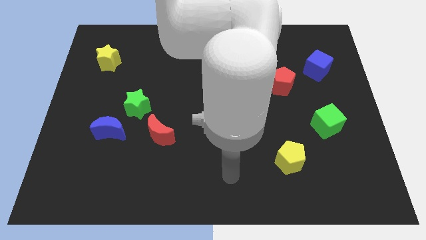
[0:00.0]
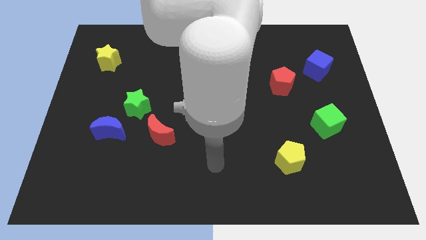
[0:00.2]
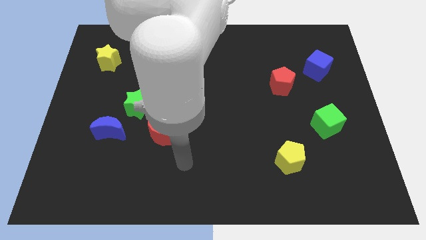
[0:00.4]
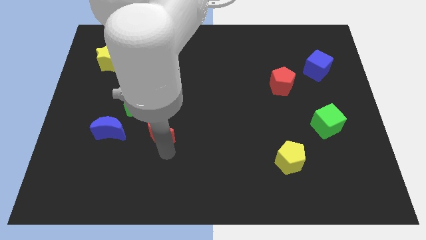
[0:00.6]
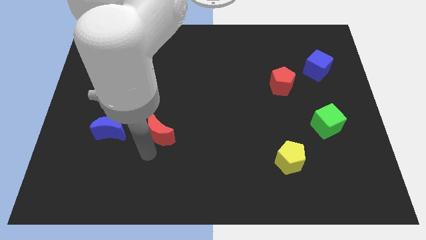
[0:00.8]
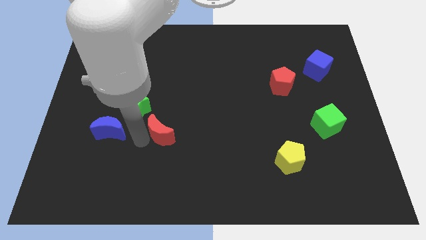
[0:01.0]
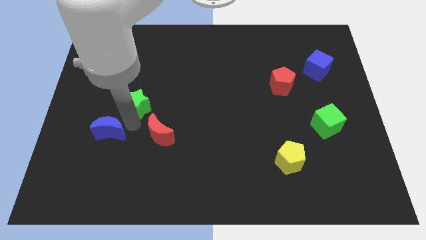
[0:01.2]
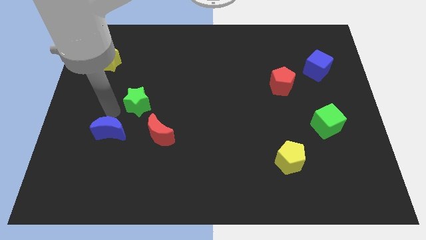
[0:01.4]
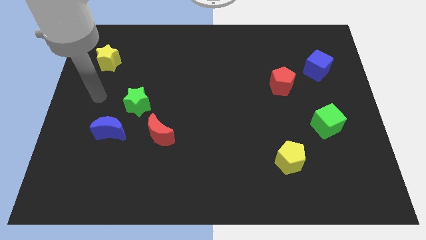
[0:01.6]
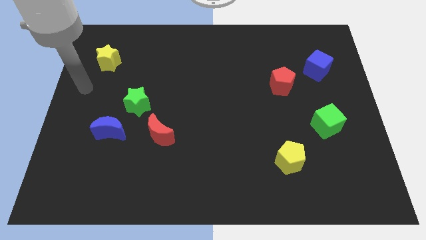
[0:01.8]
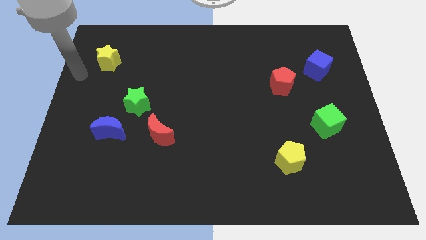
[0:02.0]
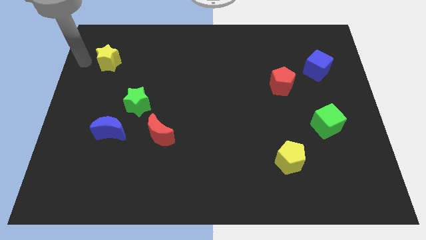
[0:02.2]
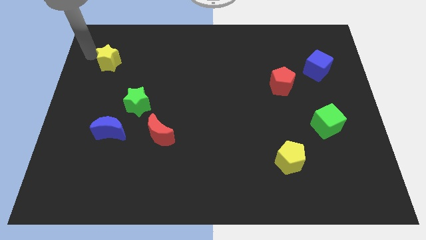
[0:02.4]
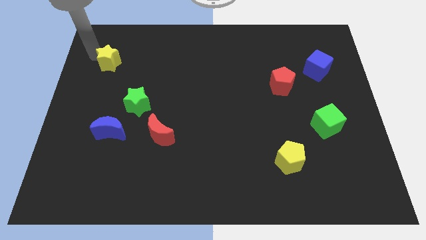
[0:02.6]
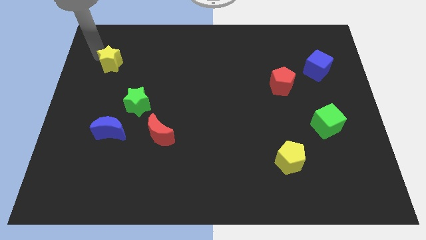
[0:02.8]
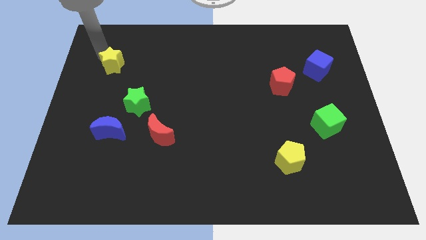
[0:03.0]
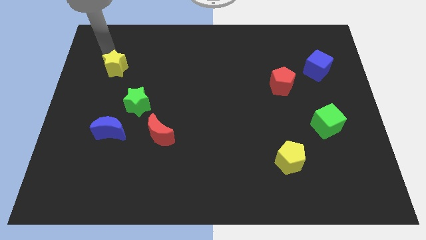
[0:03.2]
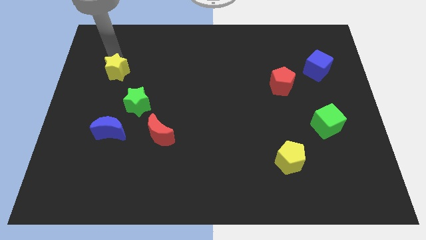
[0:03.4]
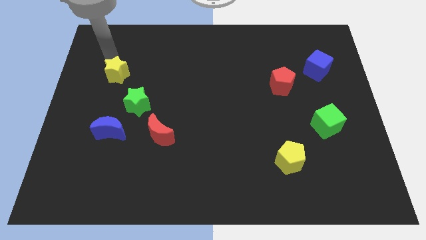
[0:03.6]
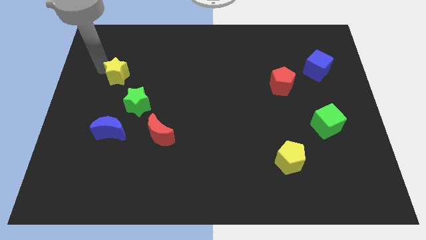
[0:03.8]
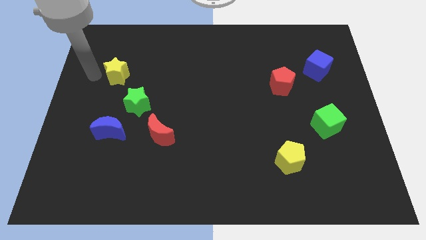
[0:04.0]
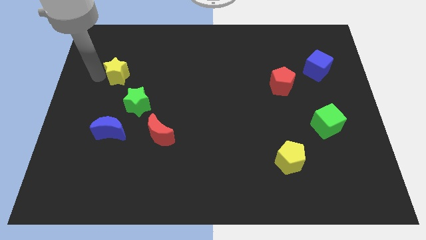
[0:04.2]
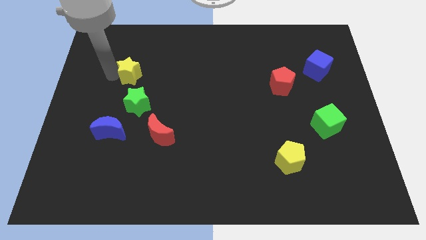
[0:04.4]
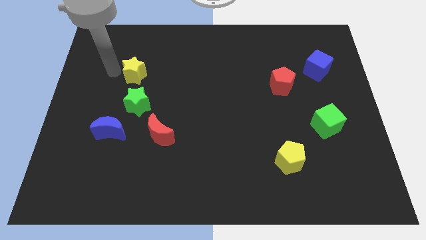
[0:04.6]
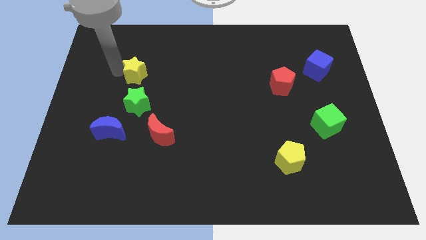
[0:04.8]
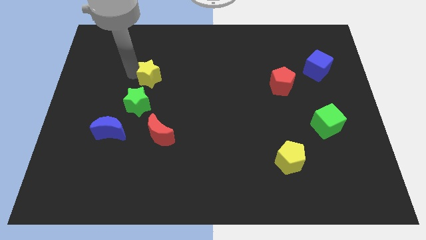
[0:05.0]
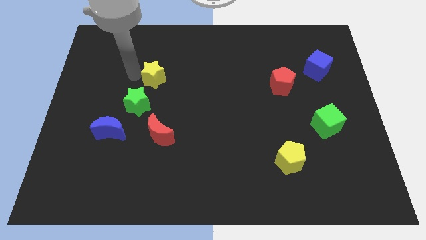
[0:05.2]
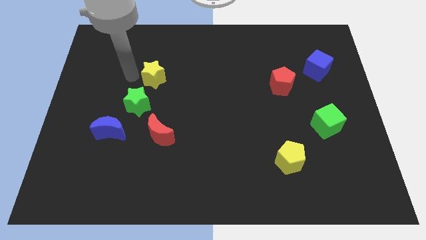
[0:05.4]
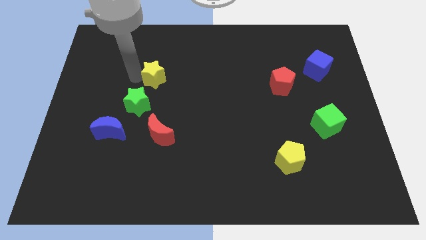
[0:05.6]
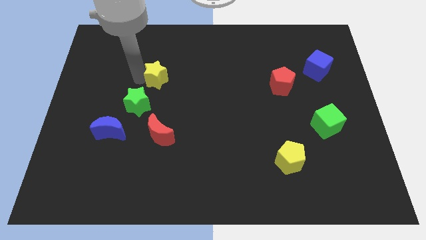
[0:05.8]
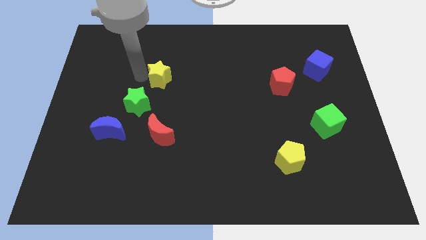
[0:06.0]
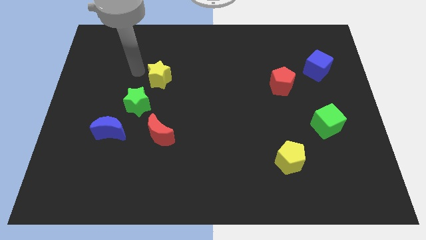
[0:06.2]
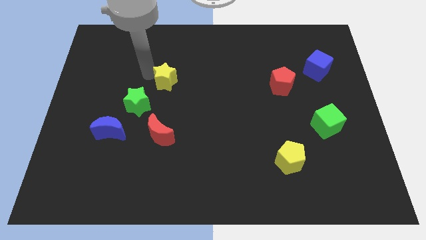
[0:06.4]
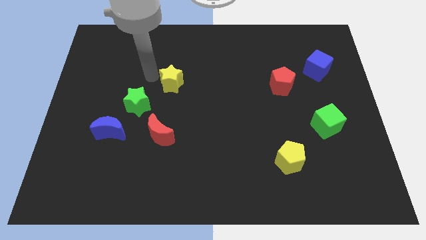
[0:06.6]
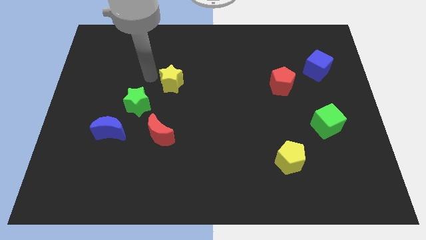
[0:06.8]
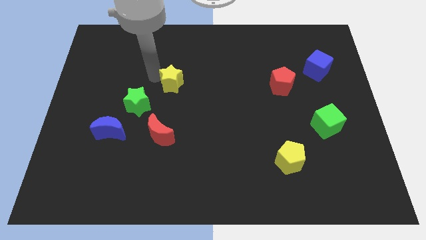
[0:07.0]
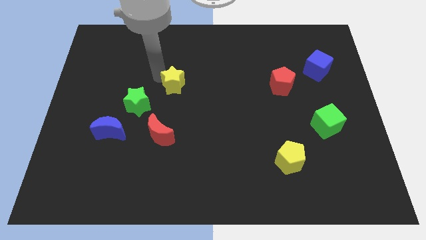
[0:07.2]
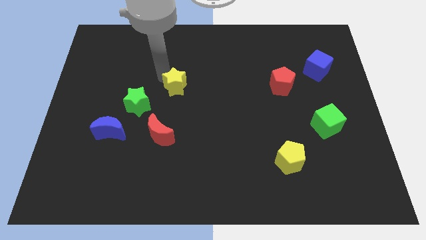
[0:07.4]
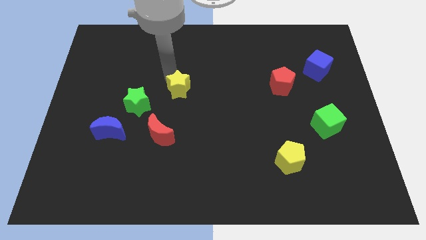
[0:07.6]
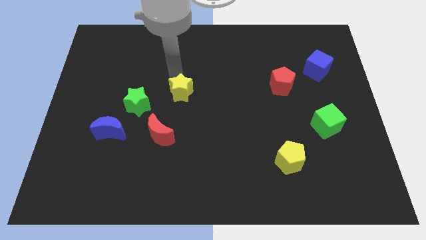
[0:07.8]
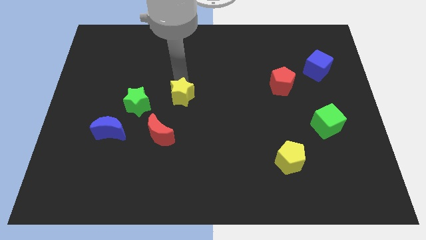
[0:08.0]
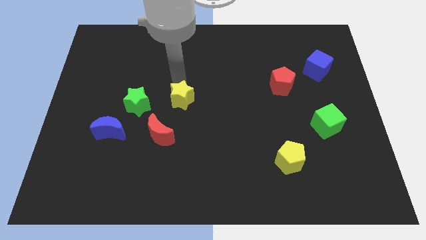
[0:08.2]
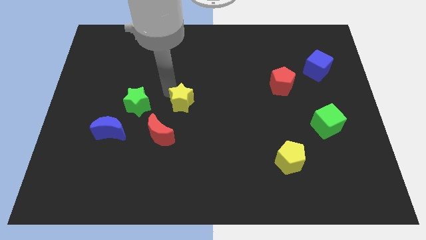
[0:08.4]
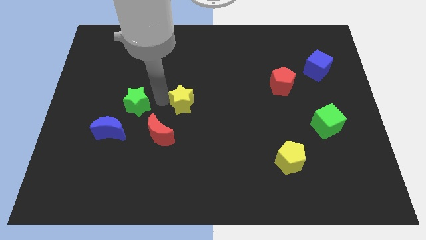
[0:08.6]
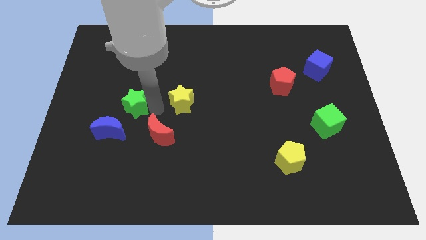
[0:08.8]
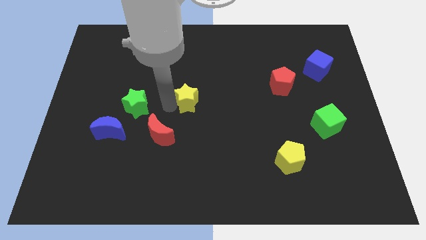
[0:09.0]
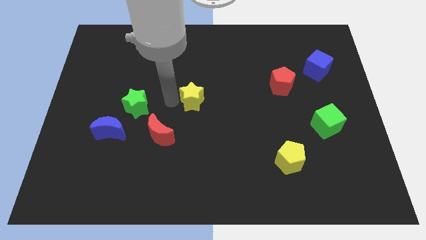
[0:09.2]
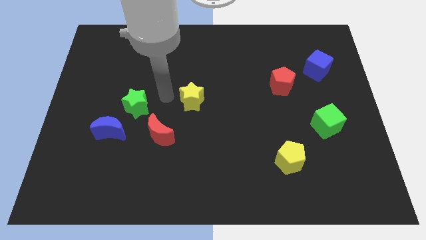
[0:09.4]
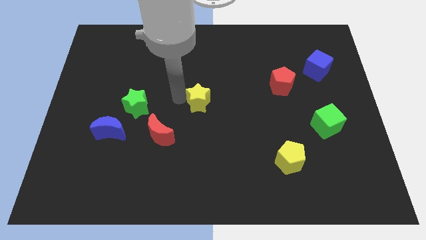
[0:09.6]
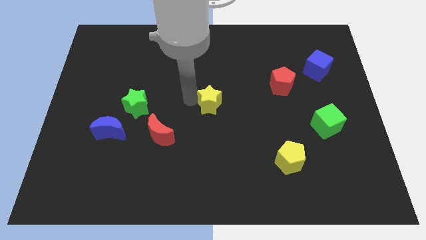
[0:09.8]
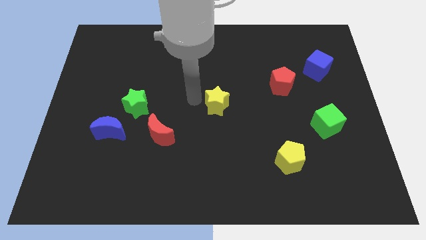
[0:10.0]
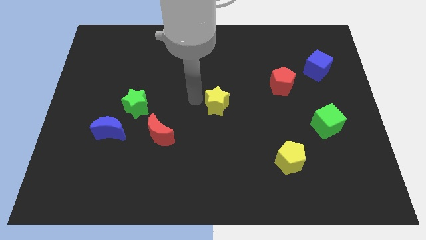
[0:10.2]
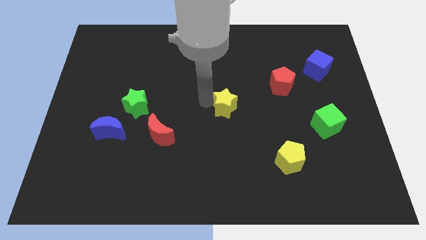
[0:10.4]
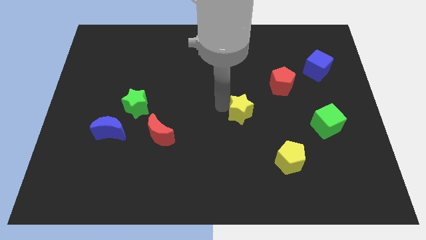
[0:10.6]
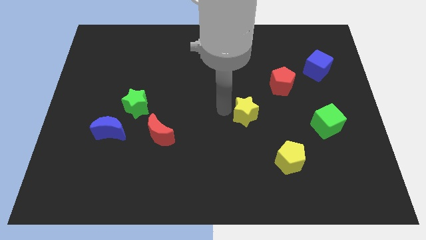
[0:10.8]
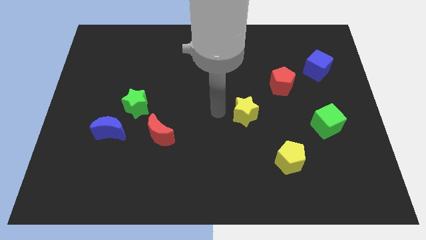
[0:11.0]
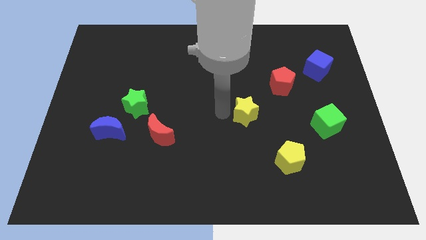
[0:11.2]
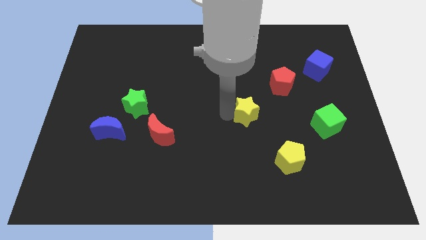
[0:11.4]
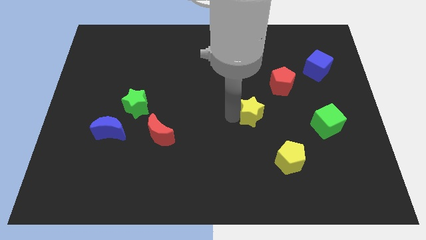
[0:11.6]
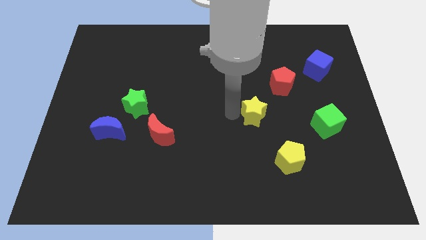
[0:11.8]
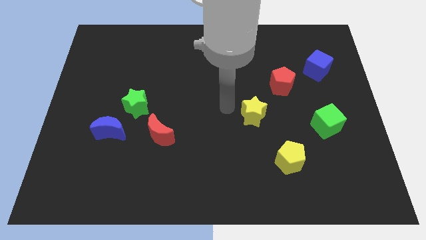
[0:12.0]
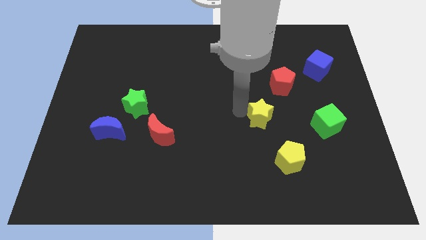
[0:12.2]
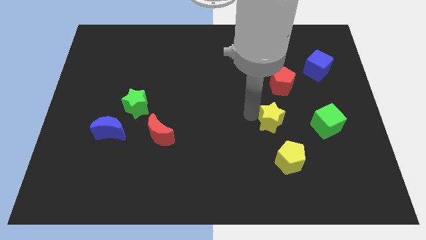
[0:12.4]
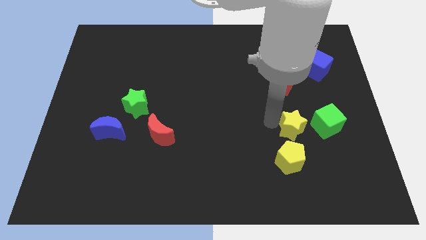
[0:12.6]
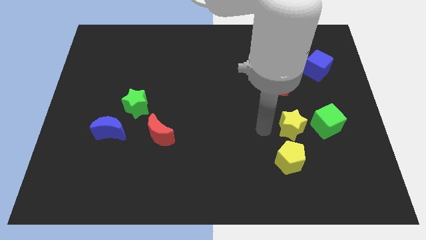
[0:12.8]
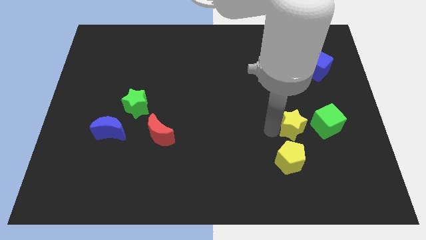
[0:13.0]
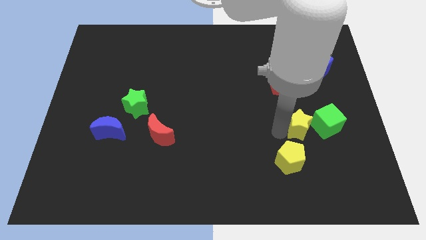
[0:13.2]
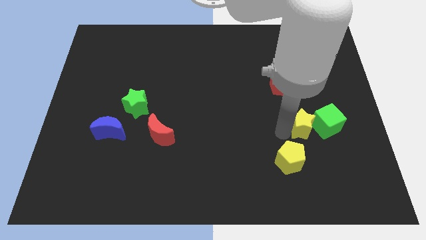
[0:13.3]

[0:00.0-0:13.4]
move the yellow star close to the green cube

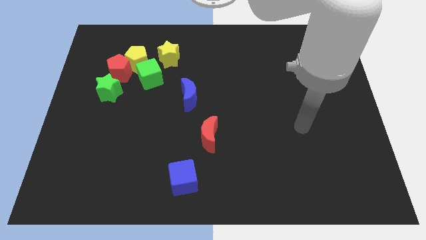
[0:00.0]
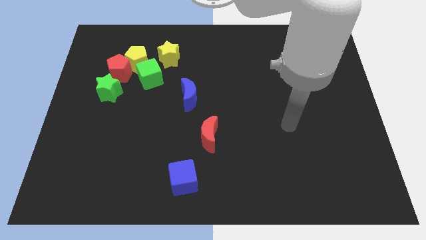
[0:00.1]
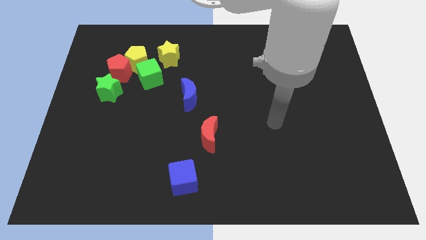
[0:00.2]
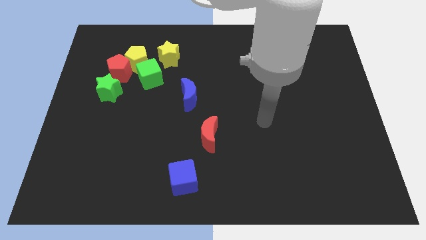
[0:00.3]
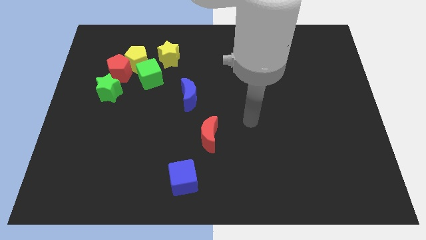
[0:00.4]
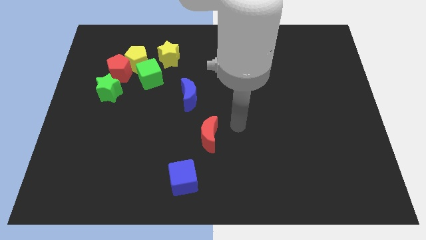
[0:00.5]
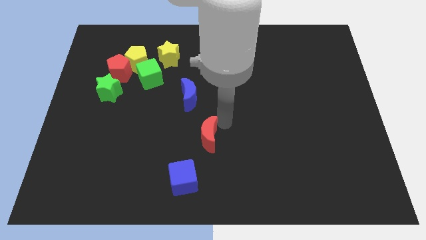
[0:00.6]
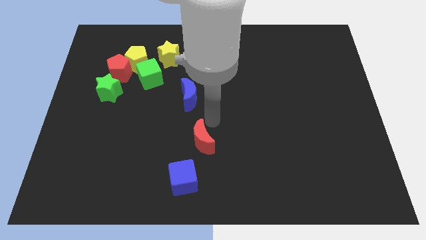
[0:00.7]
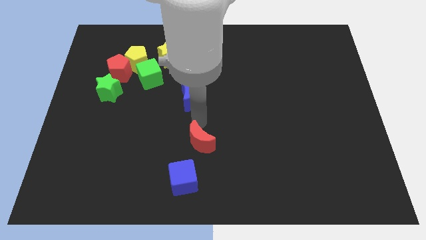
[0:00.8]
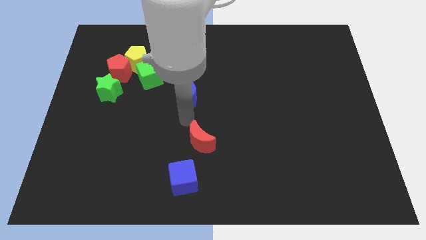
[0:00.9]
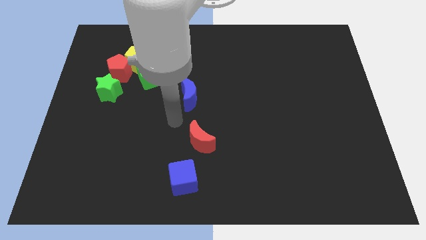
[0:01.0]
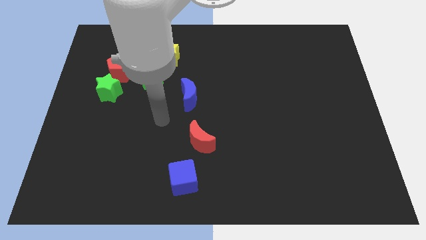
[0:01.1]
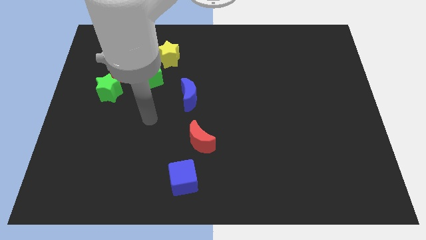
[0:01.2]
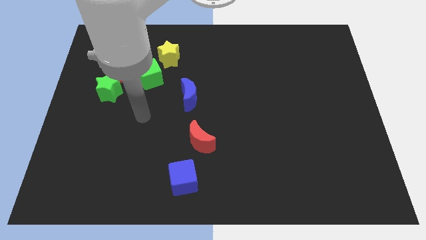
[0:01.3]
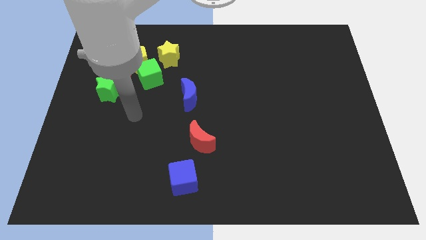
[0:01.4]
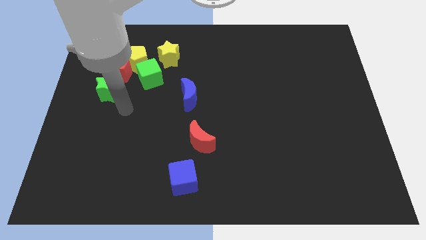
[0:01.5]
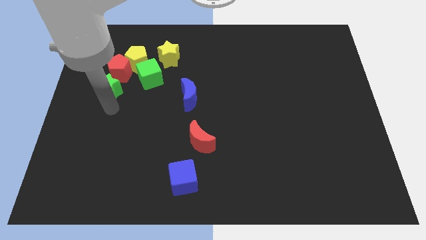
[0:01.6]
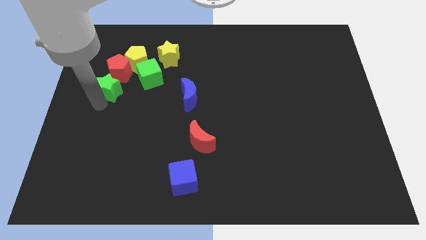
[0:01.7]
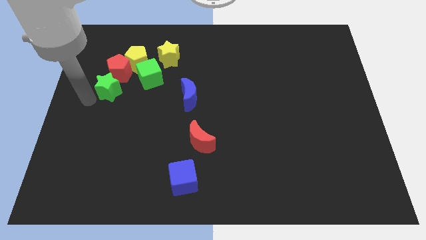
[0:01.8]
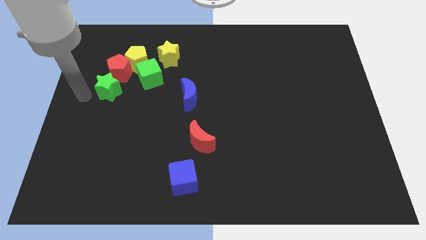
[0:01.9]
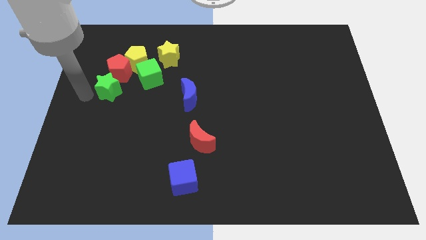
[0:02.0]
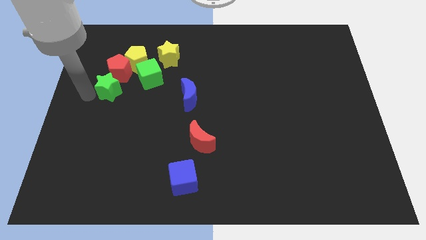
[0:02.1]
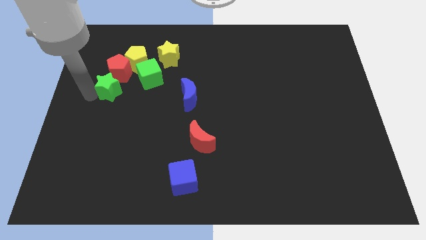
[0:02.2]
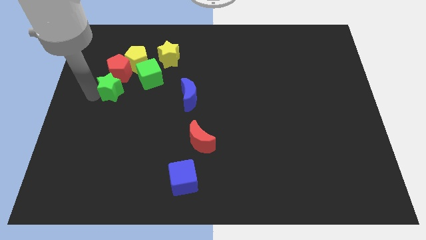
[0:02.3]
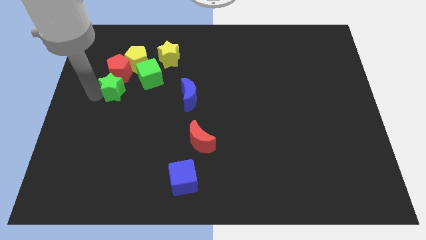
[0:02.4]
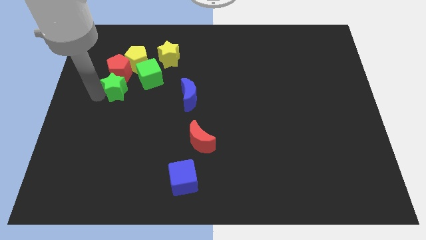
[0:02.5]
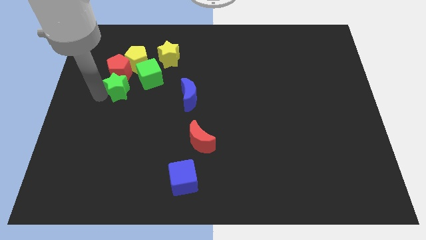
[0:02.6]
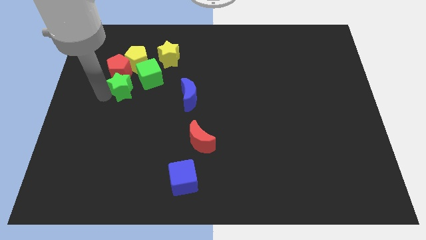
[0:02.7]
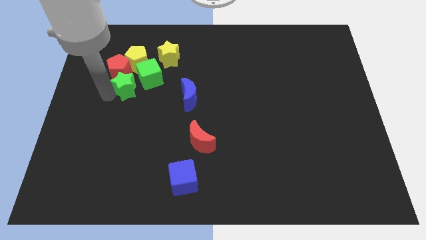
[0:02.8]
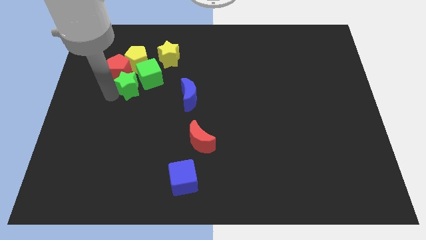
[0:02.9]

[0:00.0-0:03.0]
move the green star close to the green cube
